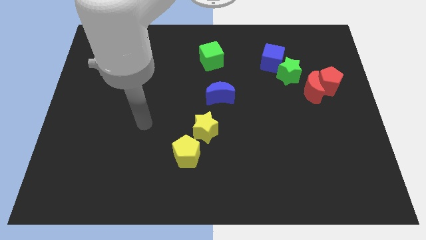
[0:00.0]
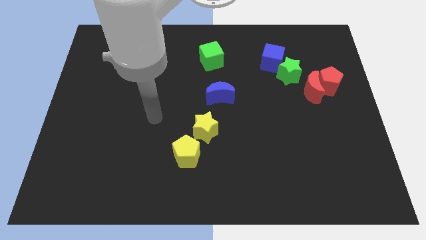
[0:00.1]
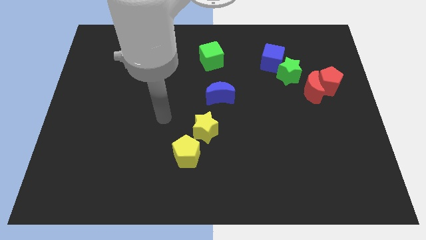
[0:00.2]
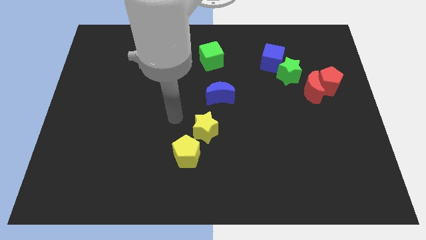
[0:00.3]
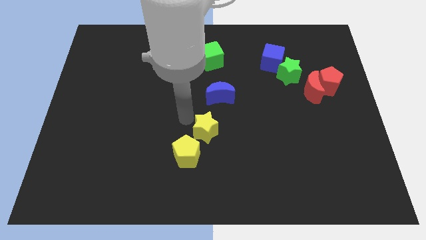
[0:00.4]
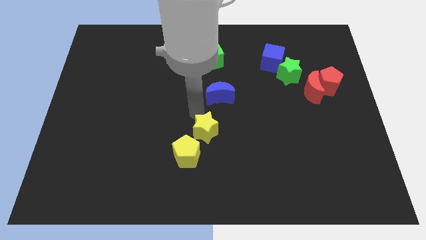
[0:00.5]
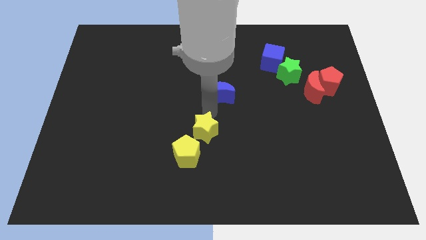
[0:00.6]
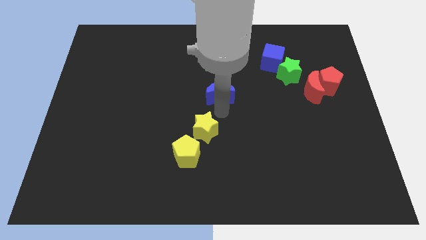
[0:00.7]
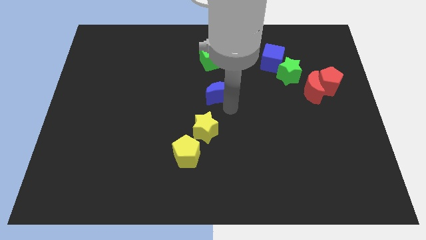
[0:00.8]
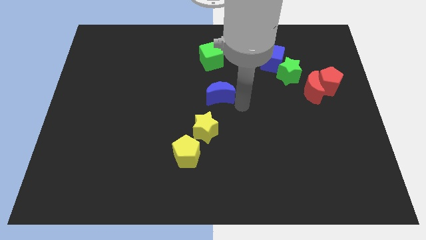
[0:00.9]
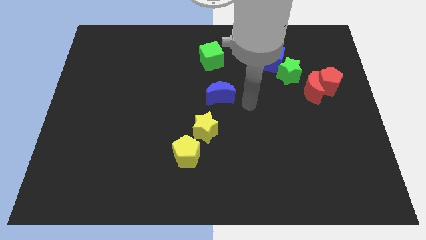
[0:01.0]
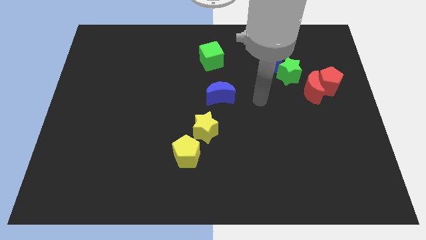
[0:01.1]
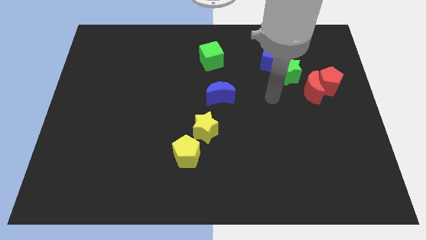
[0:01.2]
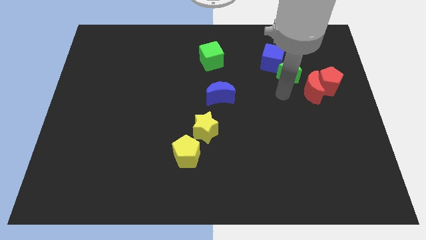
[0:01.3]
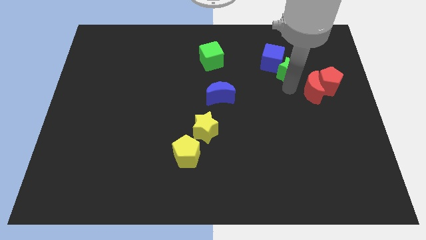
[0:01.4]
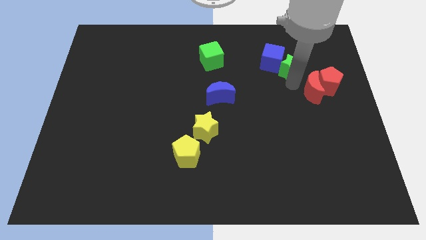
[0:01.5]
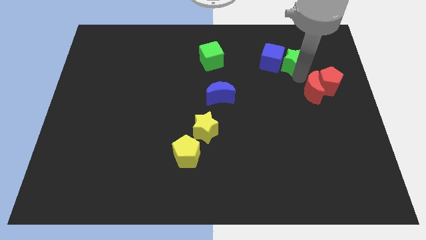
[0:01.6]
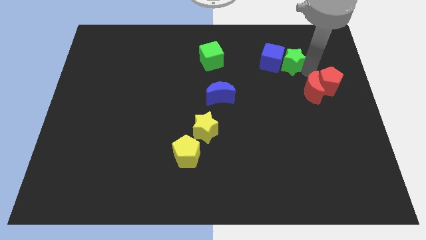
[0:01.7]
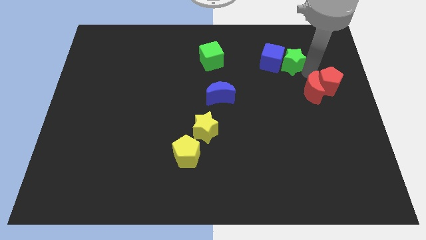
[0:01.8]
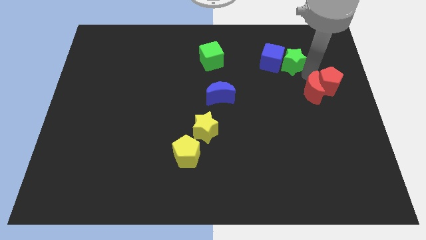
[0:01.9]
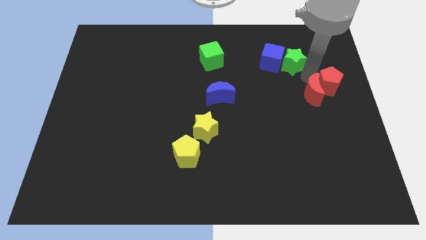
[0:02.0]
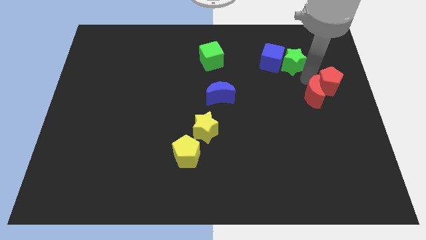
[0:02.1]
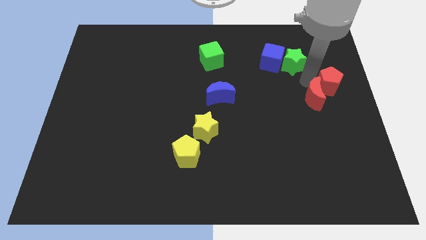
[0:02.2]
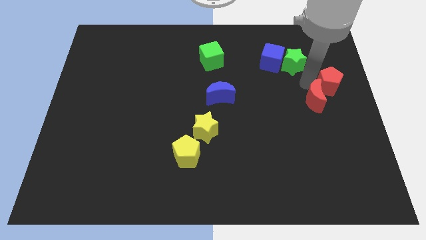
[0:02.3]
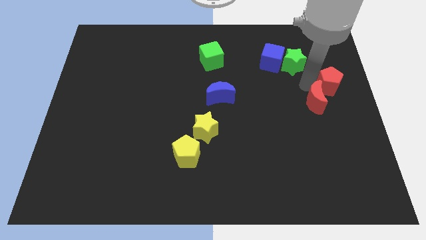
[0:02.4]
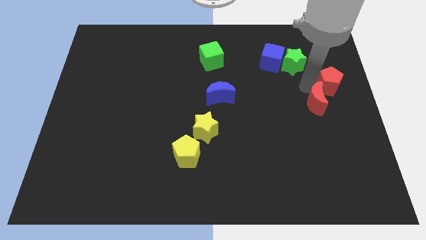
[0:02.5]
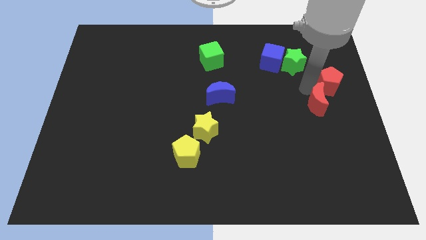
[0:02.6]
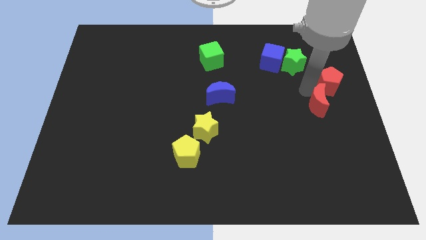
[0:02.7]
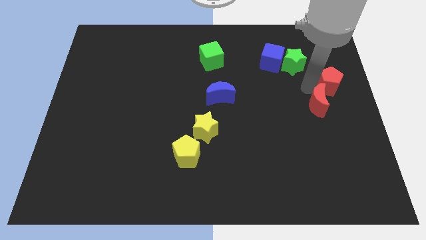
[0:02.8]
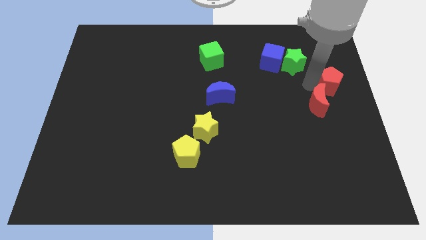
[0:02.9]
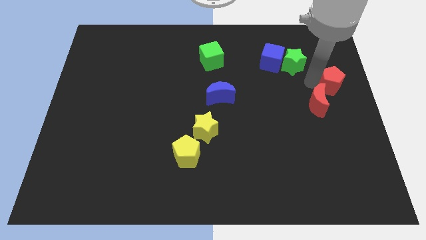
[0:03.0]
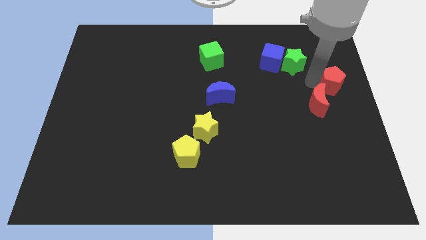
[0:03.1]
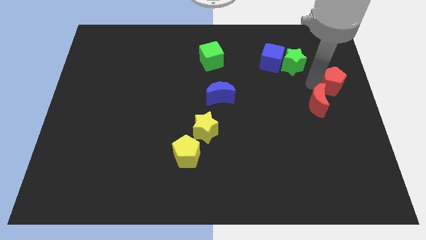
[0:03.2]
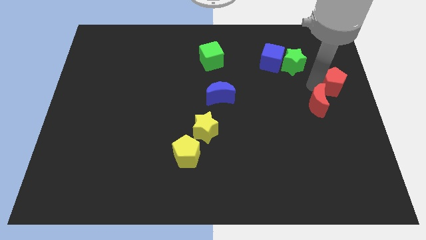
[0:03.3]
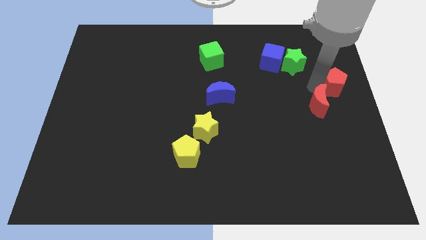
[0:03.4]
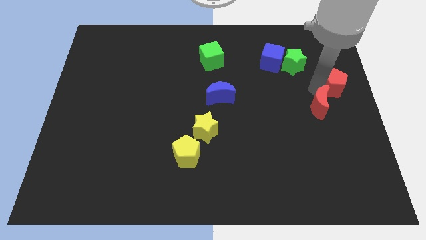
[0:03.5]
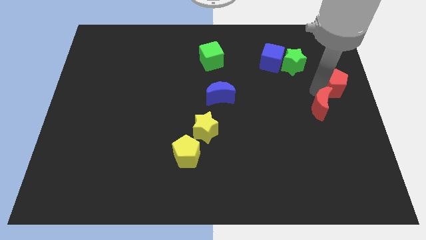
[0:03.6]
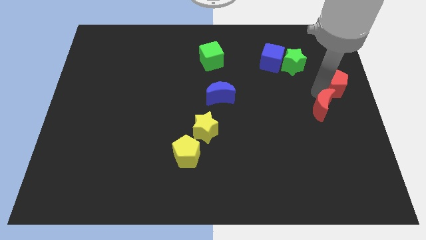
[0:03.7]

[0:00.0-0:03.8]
separate the red moon from the red pentagon and green star

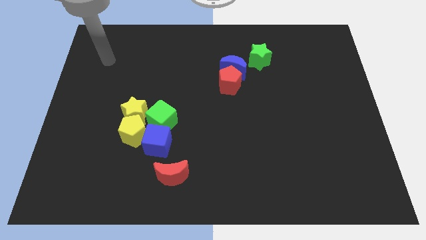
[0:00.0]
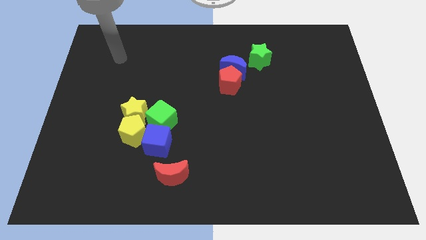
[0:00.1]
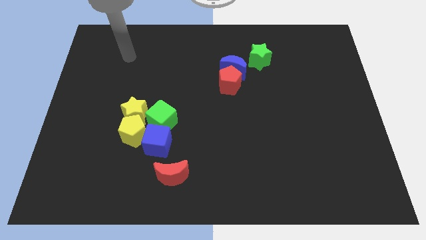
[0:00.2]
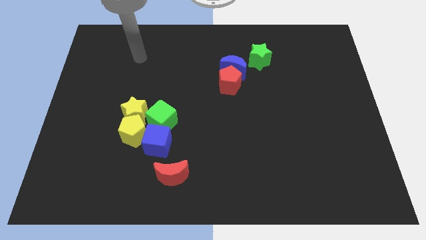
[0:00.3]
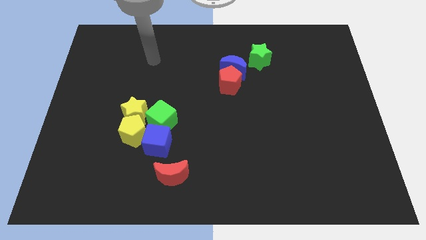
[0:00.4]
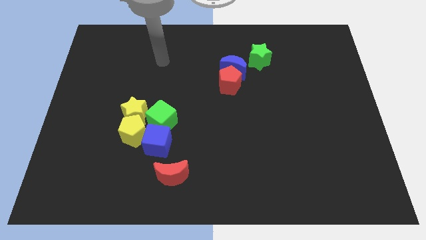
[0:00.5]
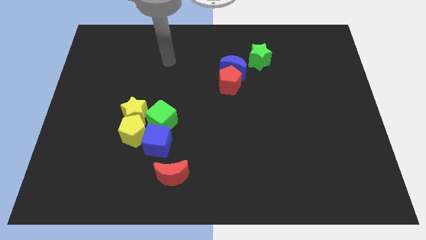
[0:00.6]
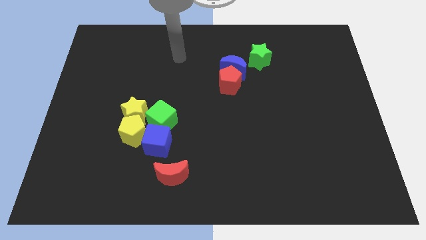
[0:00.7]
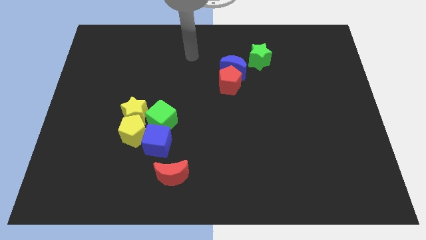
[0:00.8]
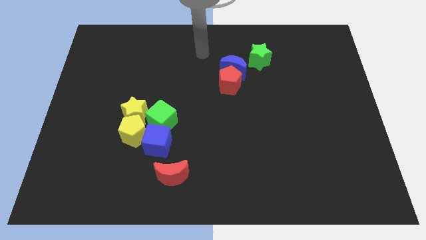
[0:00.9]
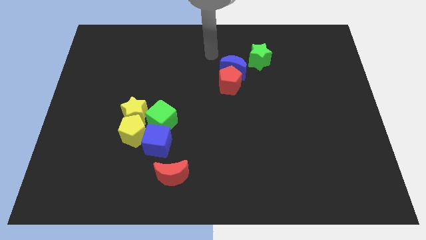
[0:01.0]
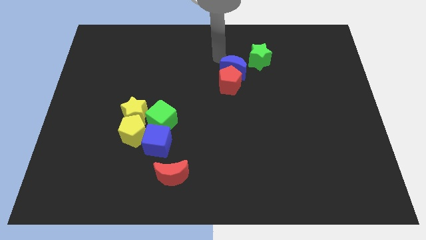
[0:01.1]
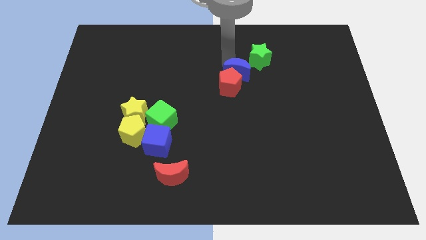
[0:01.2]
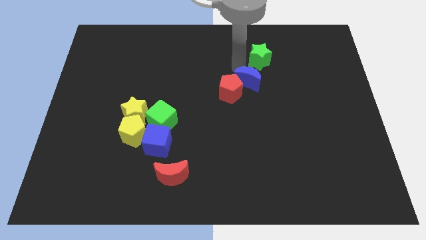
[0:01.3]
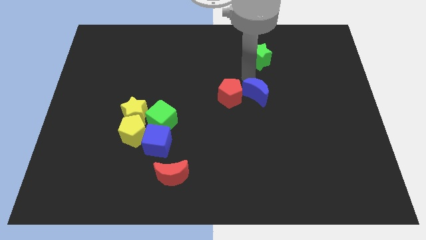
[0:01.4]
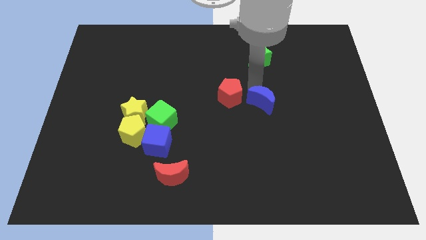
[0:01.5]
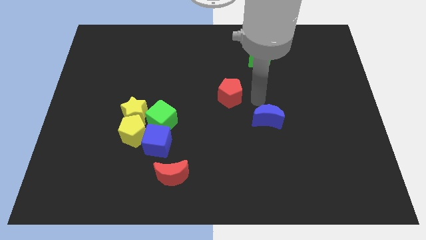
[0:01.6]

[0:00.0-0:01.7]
move the red pentagon away from the blue moon

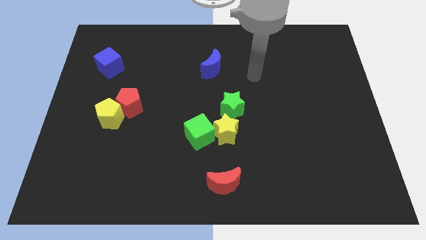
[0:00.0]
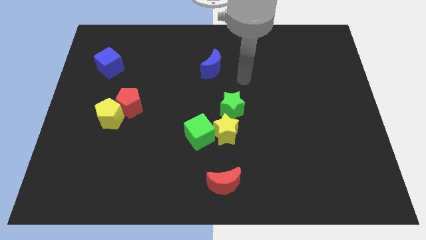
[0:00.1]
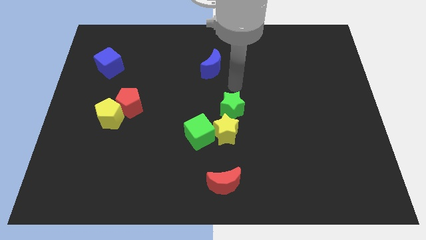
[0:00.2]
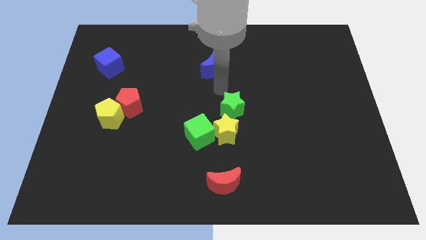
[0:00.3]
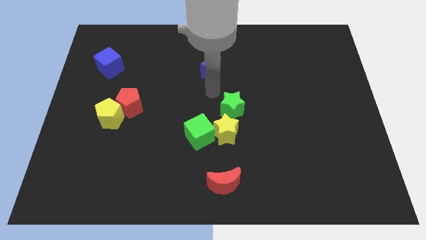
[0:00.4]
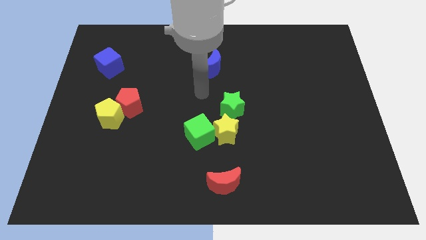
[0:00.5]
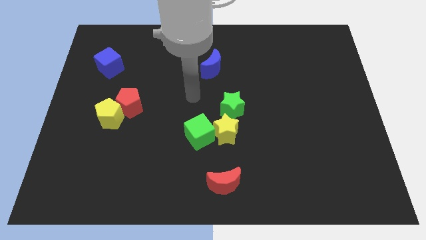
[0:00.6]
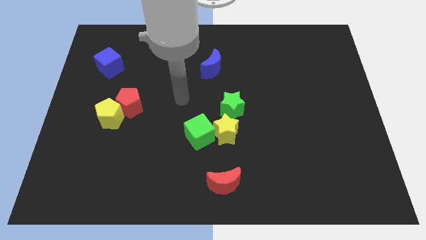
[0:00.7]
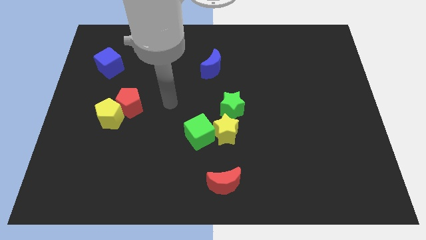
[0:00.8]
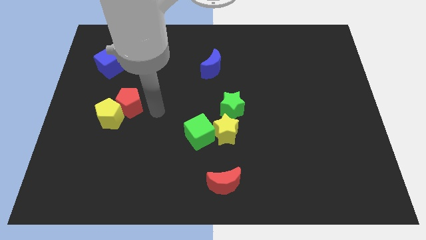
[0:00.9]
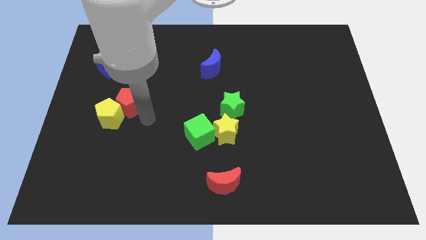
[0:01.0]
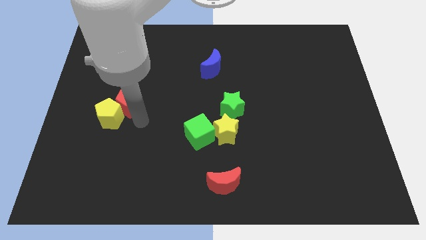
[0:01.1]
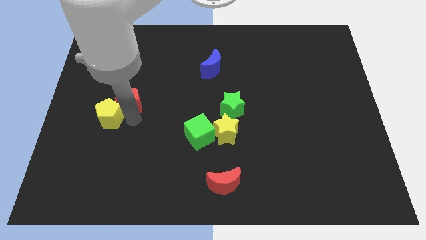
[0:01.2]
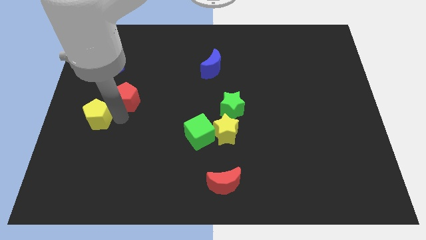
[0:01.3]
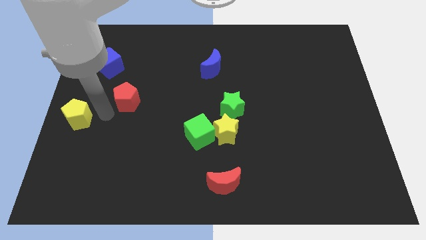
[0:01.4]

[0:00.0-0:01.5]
move the red pentagon away from the yellow pentagon

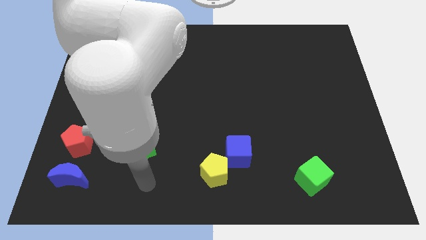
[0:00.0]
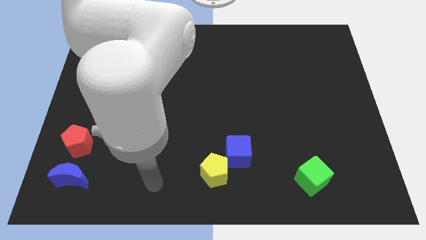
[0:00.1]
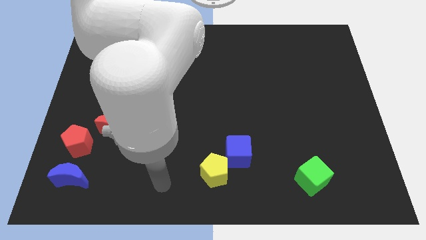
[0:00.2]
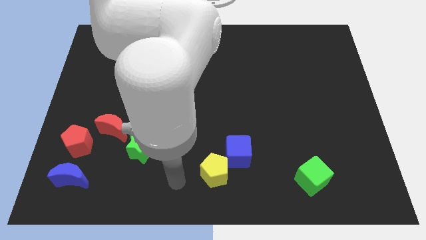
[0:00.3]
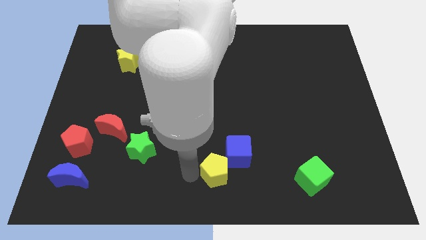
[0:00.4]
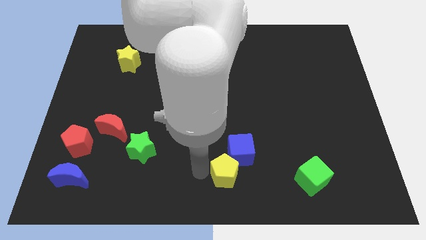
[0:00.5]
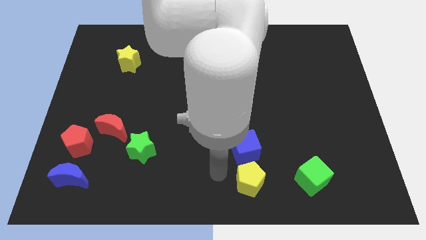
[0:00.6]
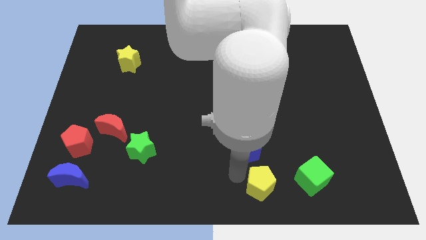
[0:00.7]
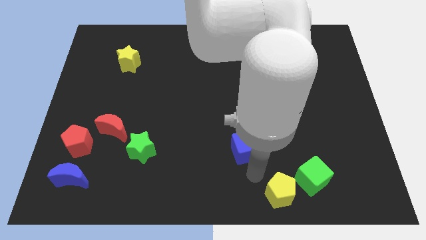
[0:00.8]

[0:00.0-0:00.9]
pull the blue cube apart from the yellow pentagon

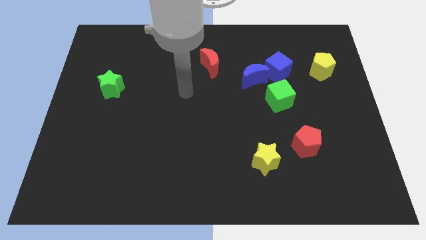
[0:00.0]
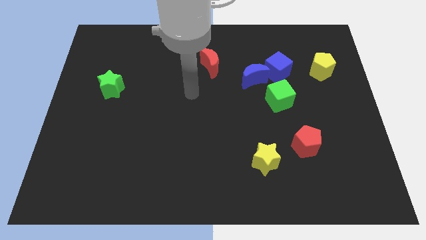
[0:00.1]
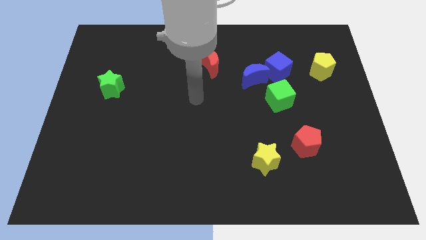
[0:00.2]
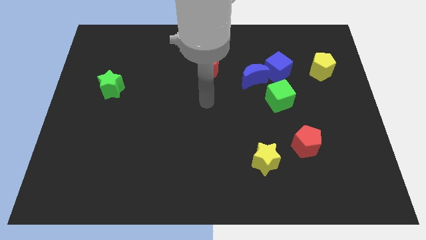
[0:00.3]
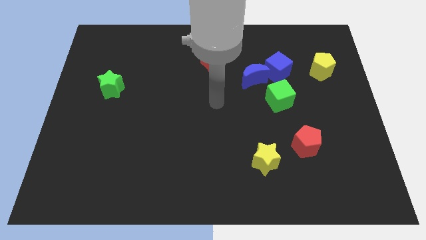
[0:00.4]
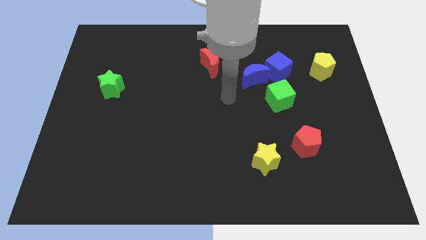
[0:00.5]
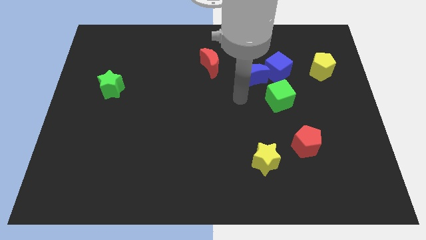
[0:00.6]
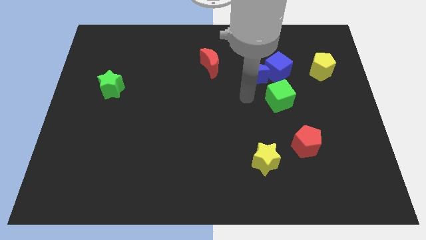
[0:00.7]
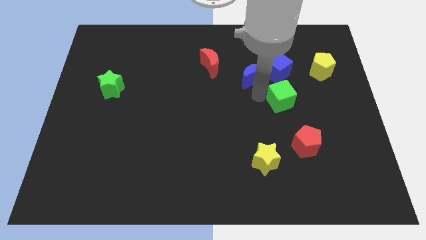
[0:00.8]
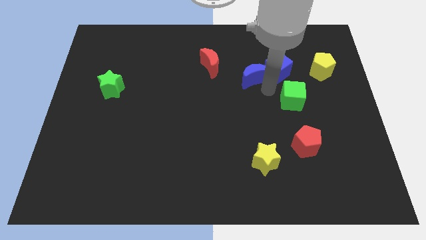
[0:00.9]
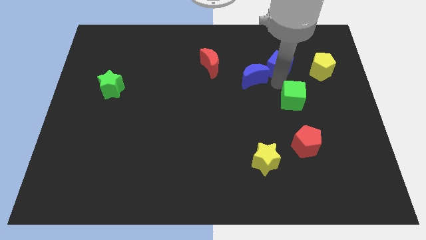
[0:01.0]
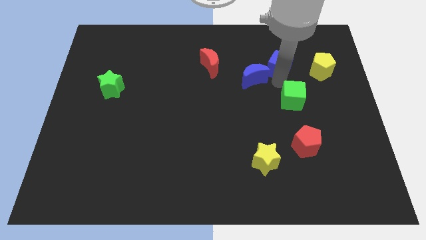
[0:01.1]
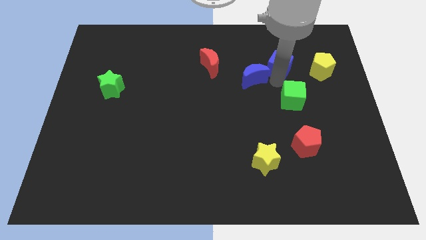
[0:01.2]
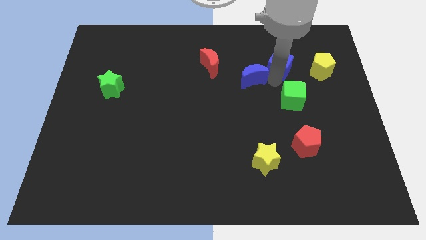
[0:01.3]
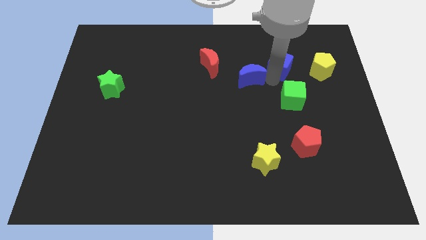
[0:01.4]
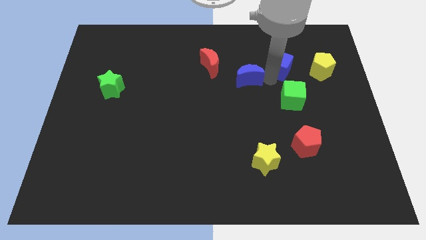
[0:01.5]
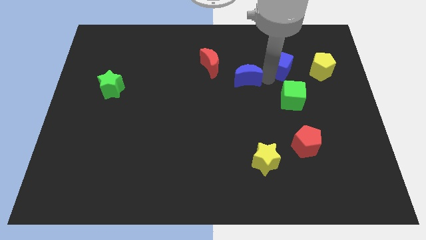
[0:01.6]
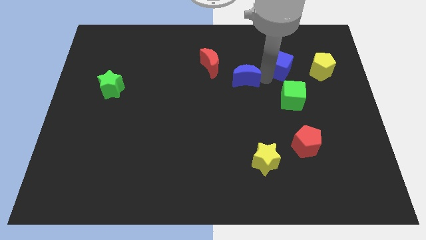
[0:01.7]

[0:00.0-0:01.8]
pull the blue moon apart from the blue cube and green cube
